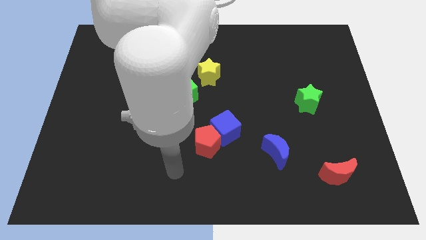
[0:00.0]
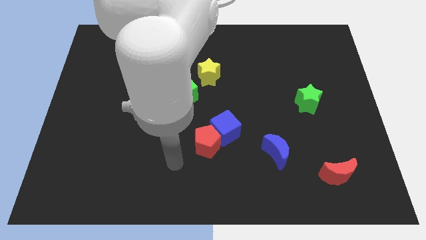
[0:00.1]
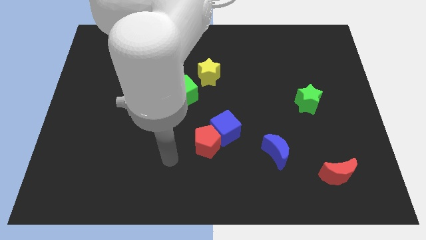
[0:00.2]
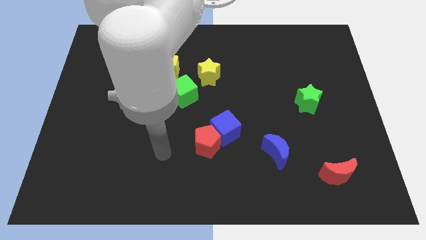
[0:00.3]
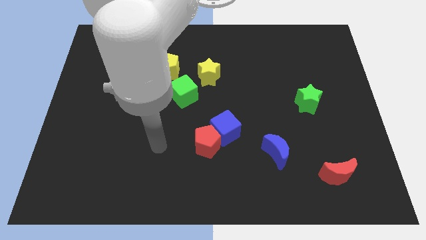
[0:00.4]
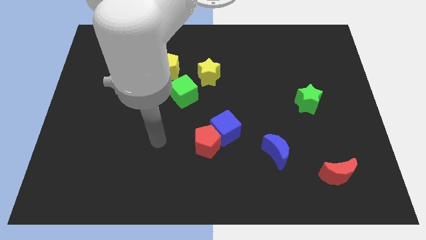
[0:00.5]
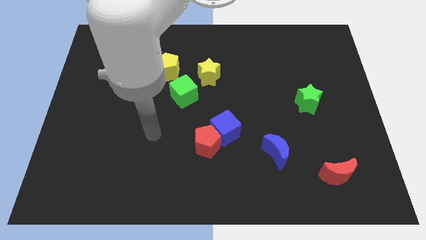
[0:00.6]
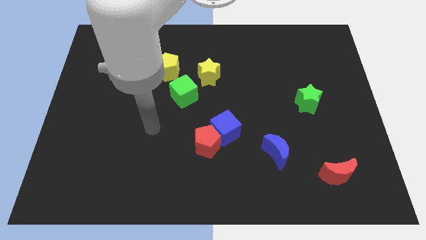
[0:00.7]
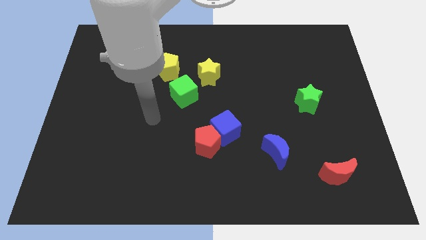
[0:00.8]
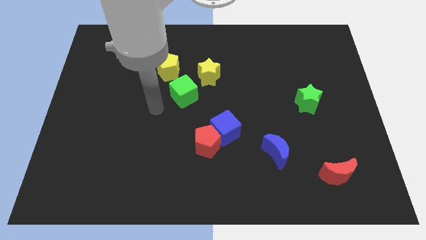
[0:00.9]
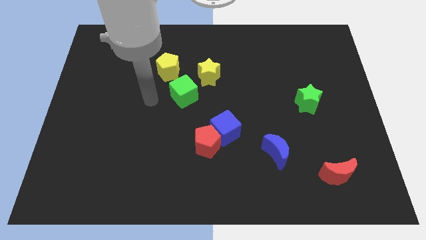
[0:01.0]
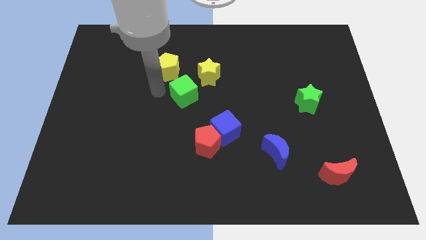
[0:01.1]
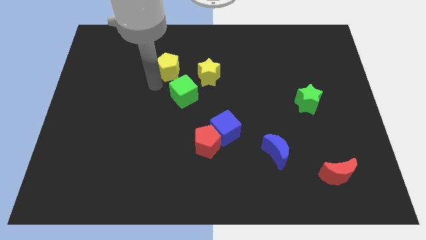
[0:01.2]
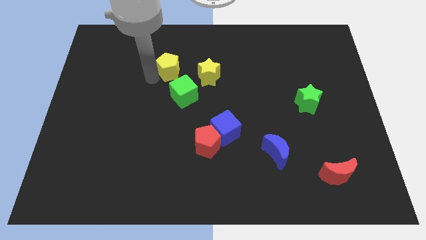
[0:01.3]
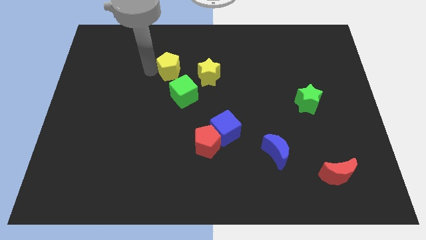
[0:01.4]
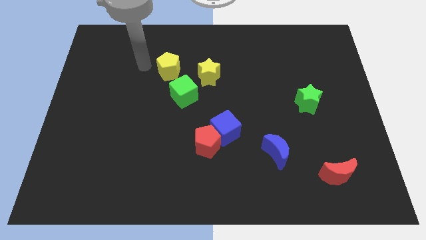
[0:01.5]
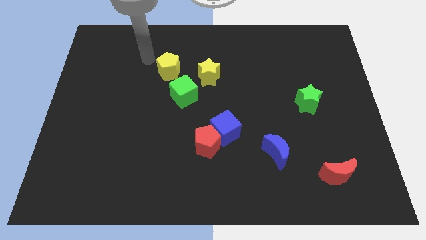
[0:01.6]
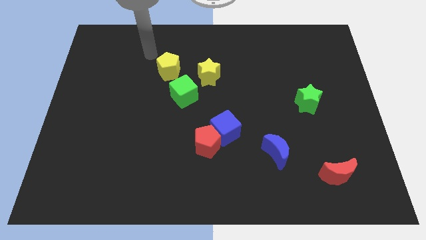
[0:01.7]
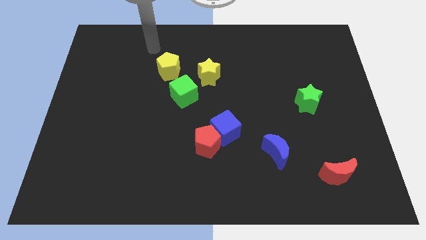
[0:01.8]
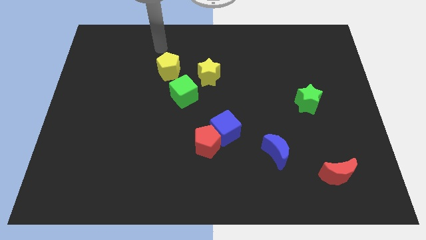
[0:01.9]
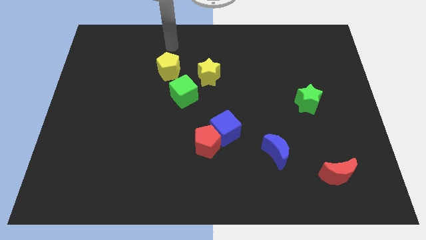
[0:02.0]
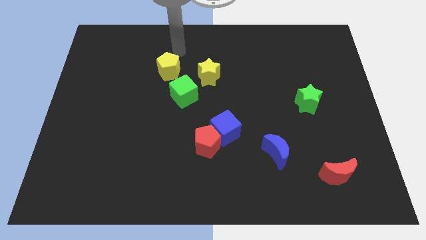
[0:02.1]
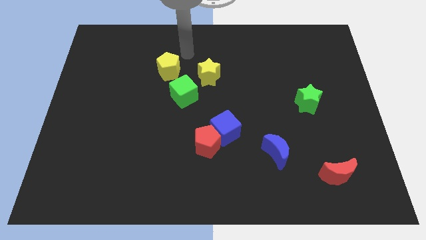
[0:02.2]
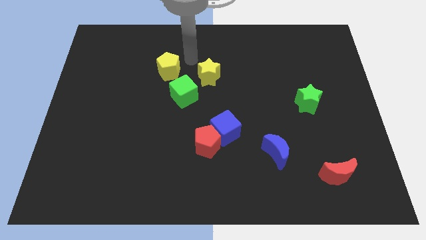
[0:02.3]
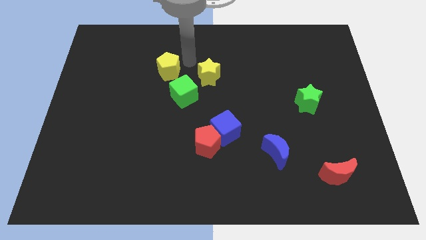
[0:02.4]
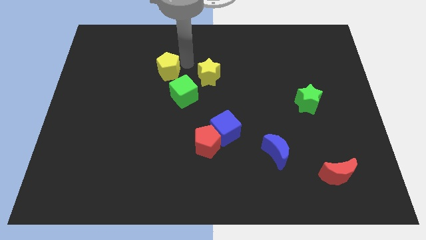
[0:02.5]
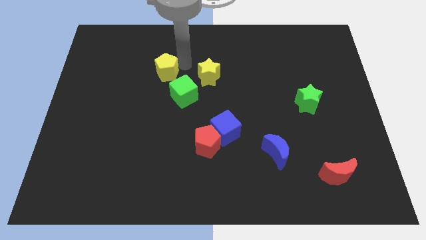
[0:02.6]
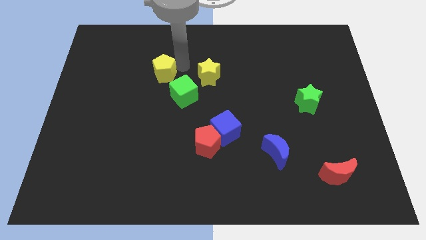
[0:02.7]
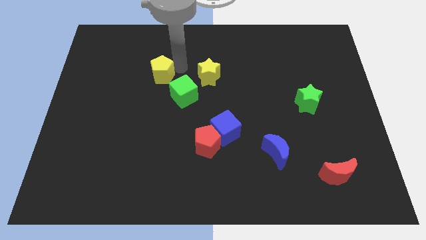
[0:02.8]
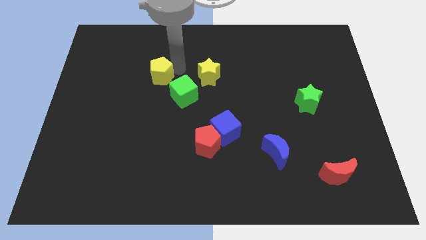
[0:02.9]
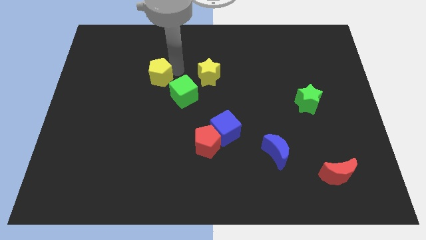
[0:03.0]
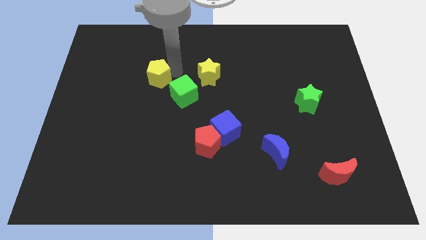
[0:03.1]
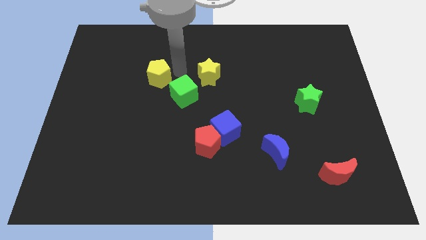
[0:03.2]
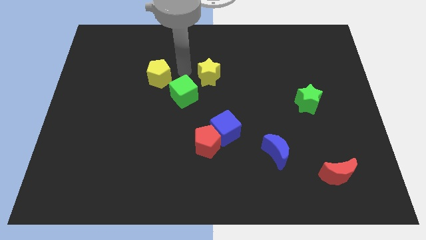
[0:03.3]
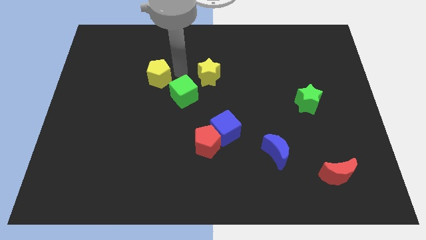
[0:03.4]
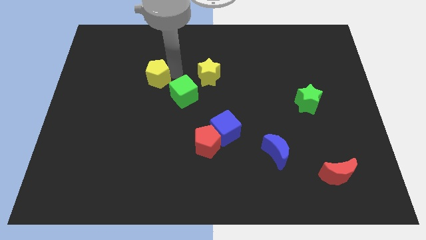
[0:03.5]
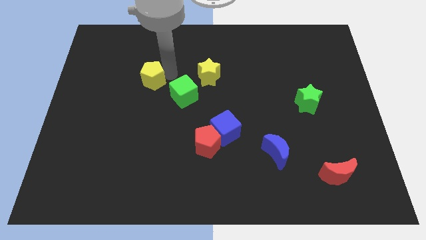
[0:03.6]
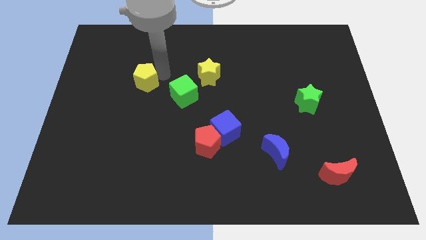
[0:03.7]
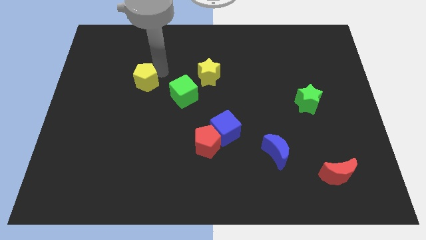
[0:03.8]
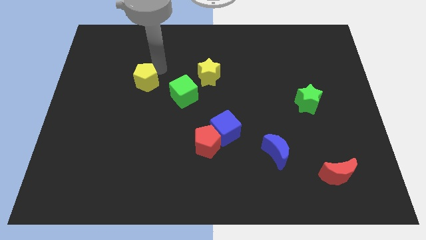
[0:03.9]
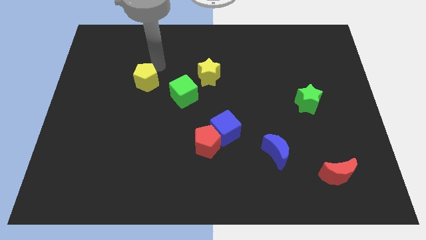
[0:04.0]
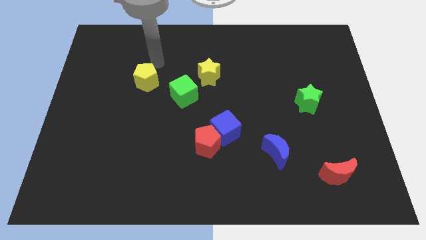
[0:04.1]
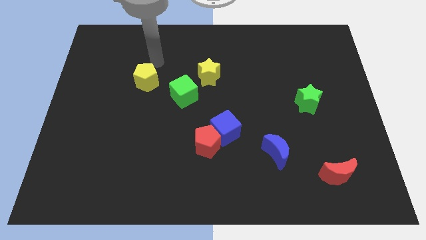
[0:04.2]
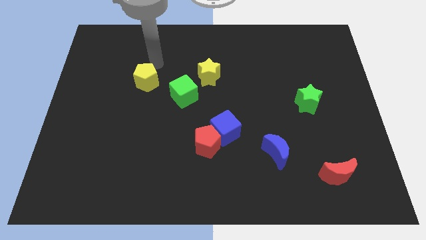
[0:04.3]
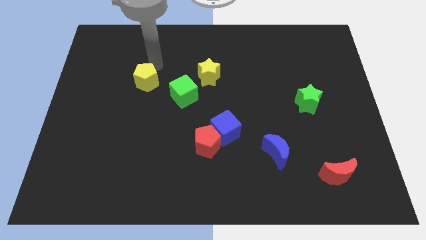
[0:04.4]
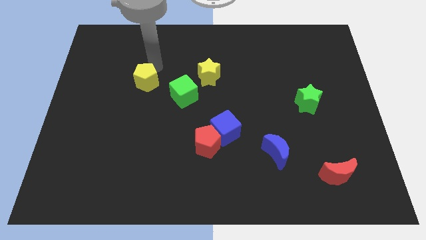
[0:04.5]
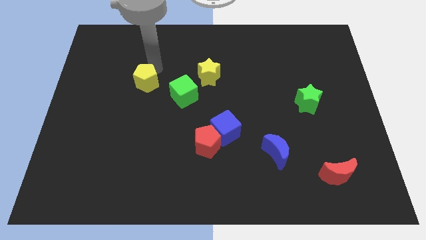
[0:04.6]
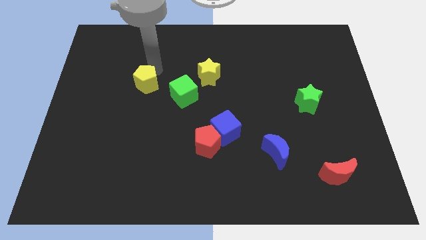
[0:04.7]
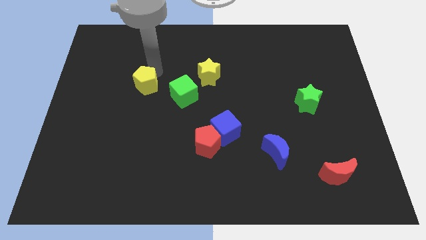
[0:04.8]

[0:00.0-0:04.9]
slide the yellow pentagon down and to the left diagonally a bit

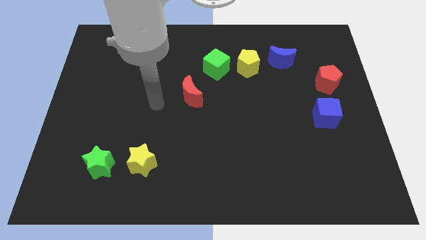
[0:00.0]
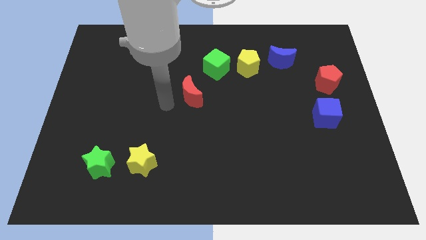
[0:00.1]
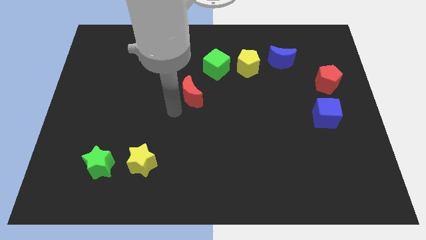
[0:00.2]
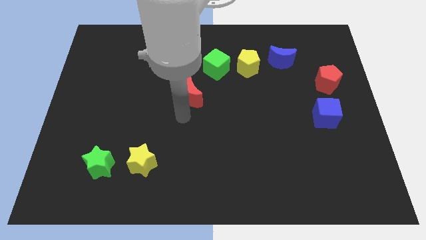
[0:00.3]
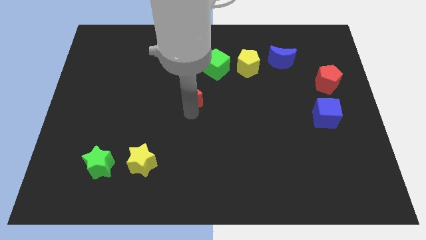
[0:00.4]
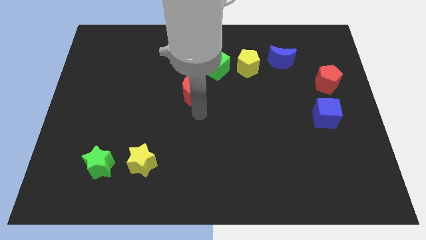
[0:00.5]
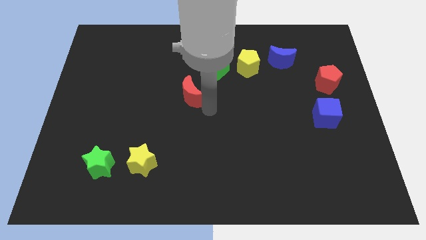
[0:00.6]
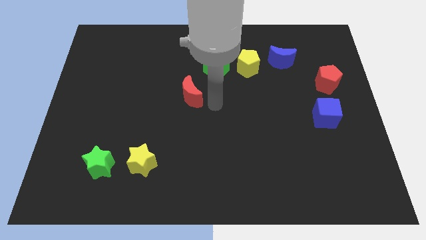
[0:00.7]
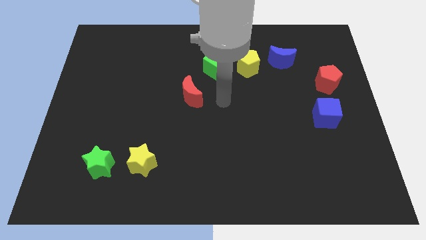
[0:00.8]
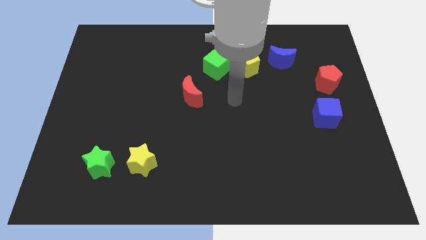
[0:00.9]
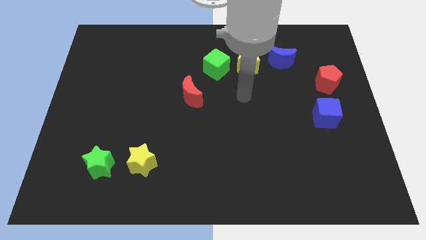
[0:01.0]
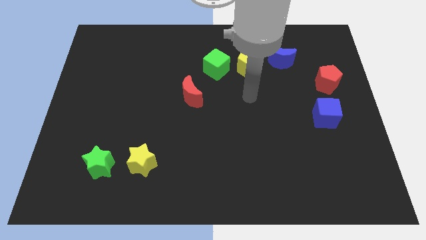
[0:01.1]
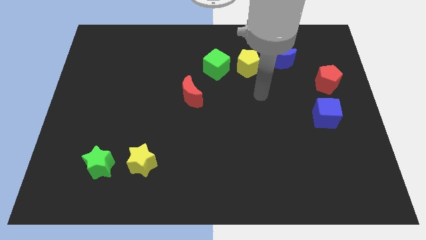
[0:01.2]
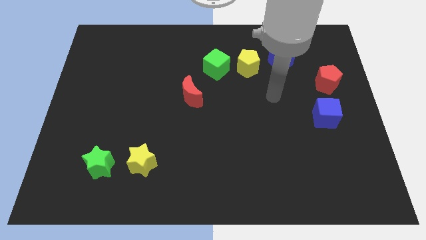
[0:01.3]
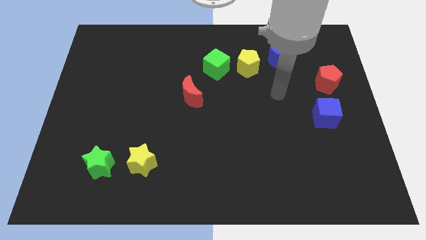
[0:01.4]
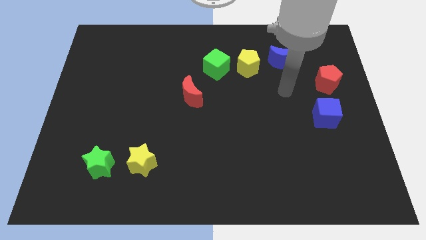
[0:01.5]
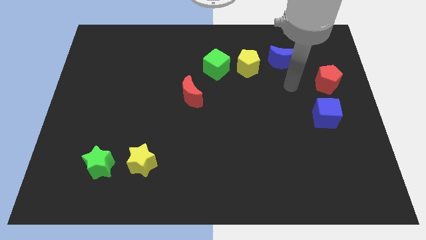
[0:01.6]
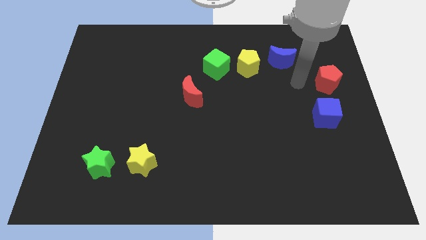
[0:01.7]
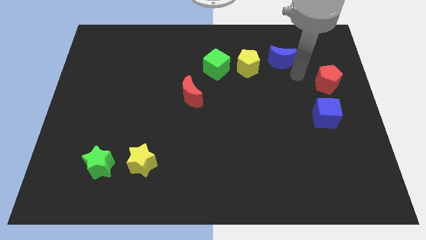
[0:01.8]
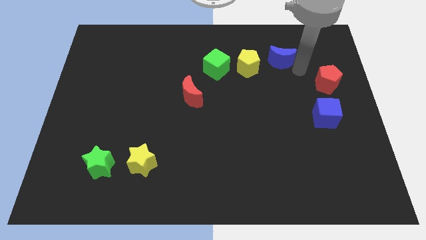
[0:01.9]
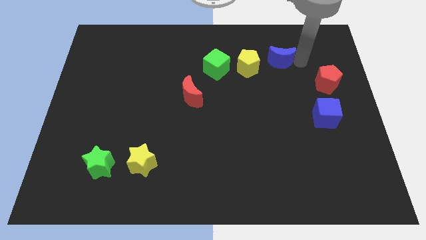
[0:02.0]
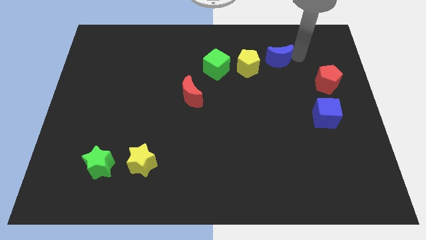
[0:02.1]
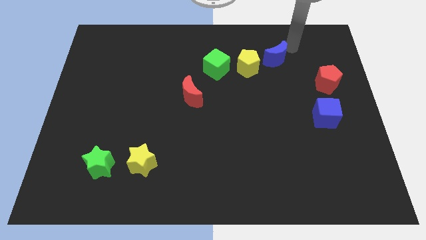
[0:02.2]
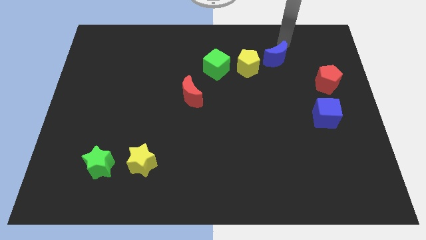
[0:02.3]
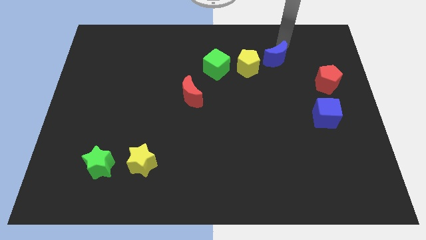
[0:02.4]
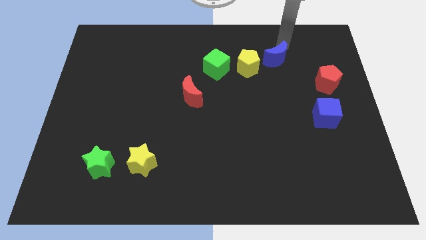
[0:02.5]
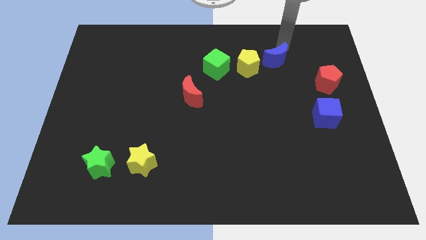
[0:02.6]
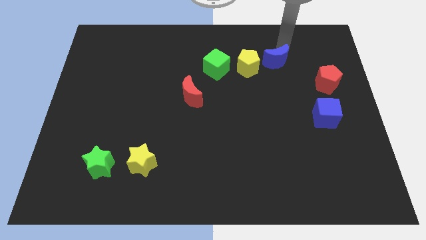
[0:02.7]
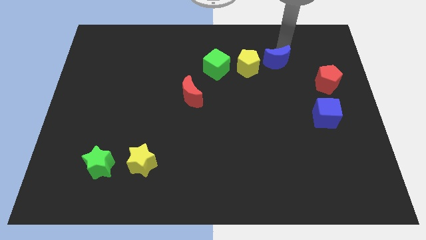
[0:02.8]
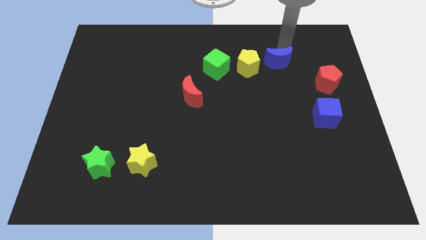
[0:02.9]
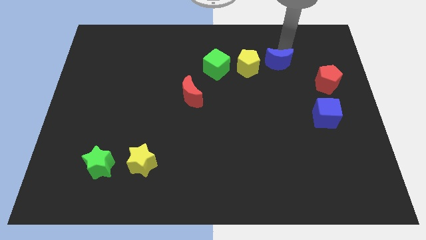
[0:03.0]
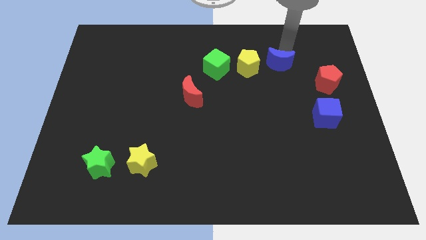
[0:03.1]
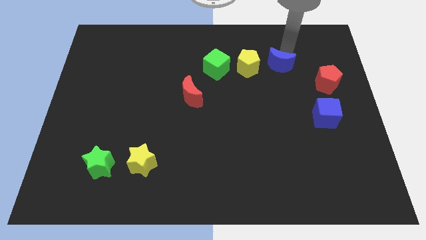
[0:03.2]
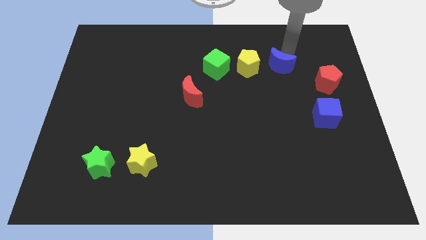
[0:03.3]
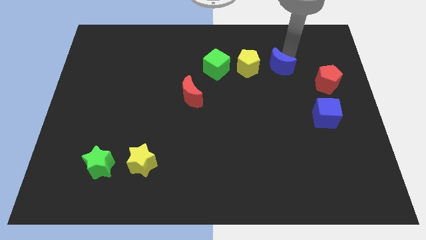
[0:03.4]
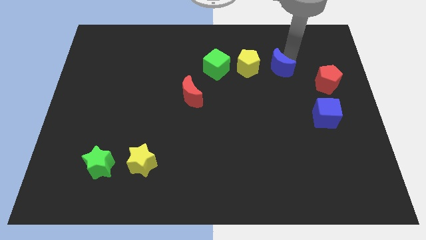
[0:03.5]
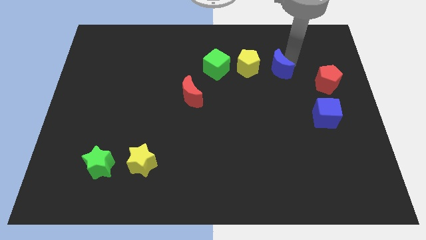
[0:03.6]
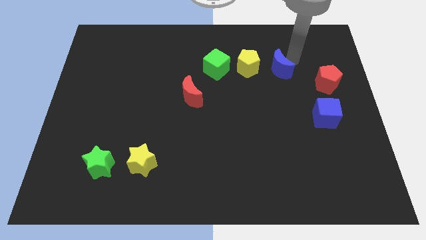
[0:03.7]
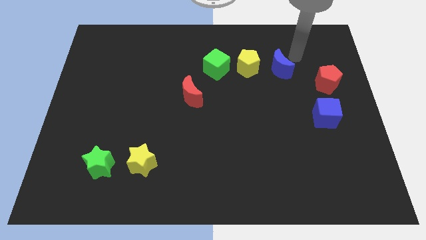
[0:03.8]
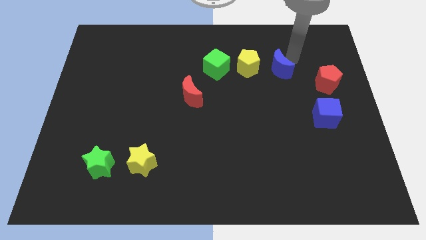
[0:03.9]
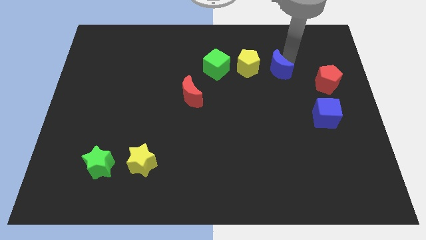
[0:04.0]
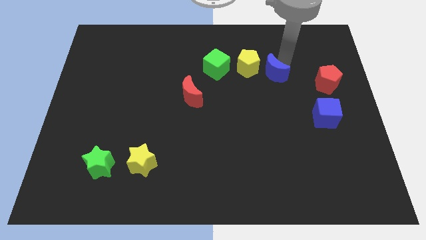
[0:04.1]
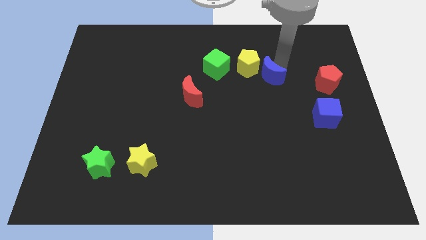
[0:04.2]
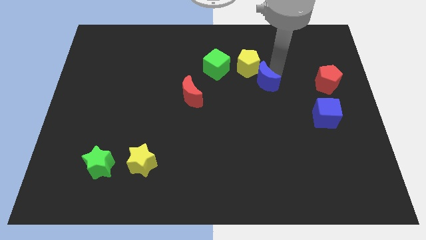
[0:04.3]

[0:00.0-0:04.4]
slide the blue moon a little bit diagonally downwards and left
